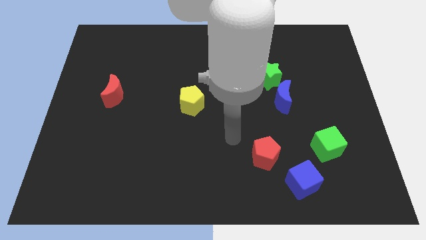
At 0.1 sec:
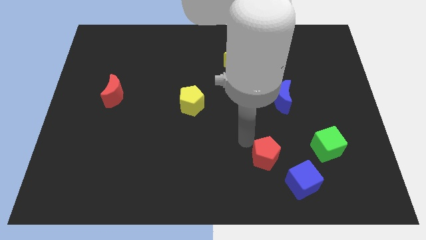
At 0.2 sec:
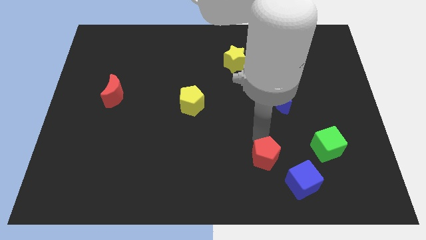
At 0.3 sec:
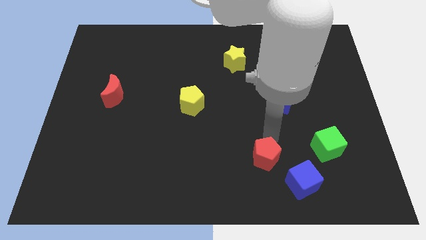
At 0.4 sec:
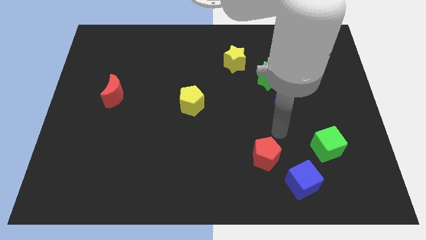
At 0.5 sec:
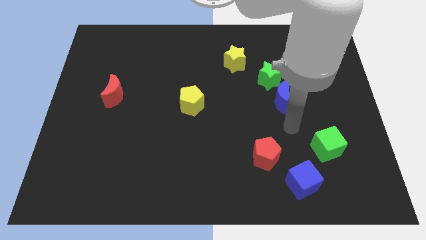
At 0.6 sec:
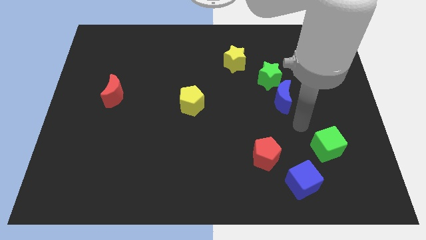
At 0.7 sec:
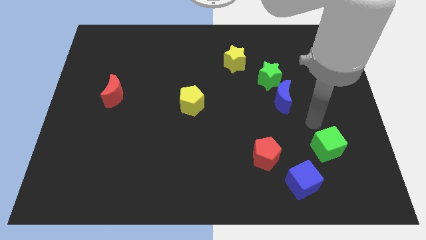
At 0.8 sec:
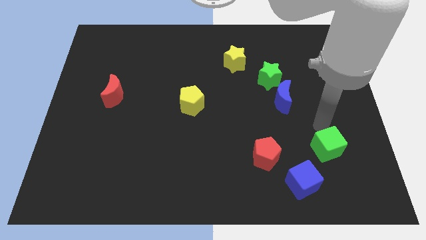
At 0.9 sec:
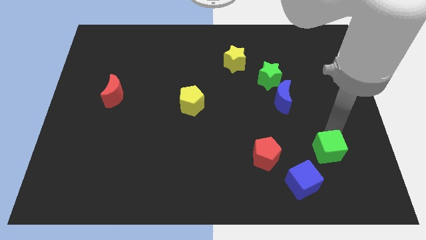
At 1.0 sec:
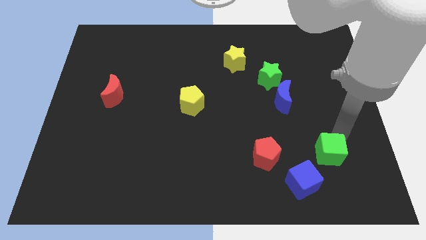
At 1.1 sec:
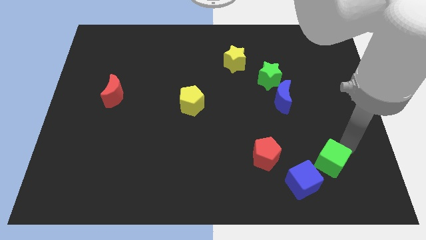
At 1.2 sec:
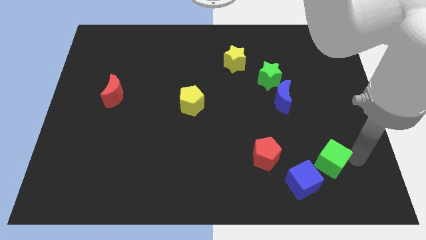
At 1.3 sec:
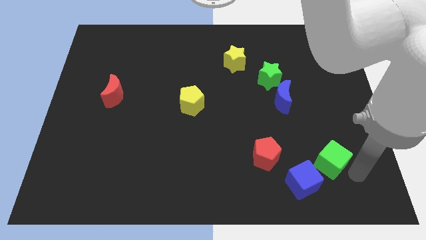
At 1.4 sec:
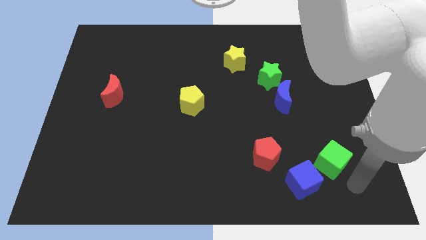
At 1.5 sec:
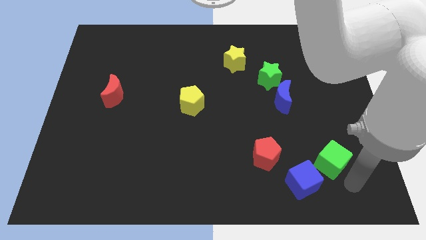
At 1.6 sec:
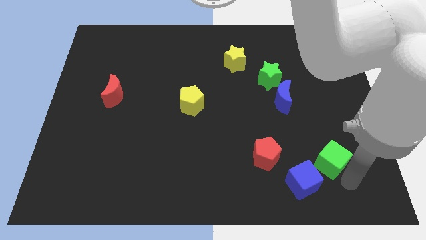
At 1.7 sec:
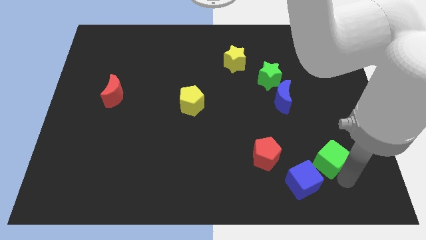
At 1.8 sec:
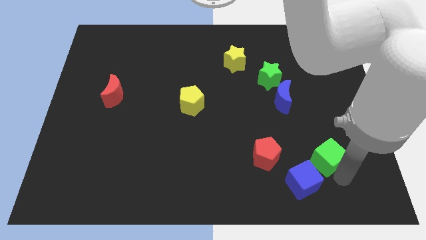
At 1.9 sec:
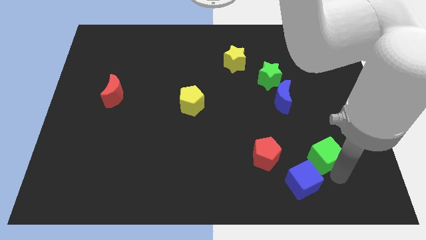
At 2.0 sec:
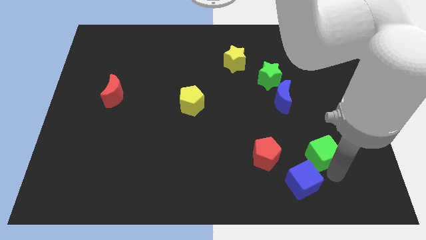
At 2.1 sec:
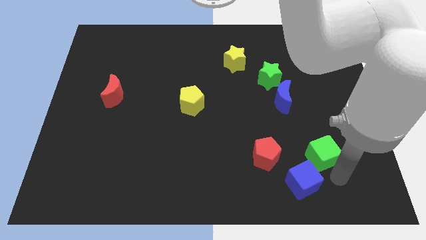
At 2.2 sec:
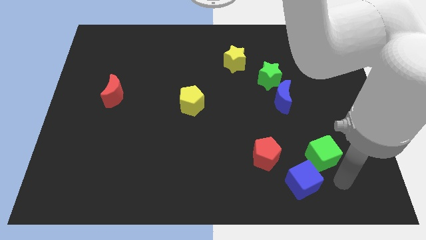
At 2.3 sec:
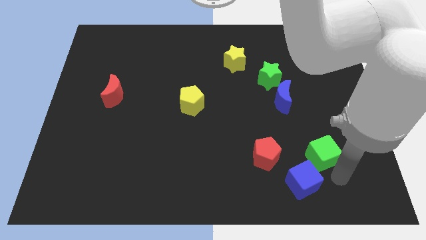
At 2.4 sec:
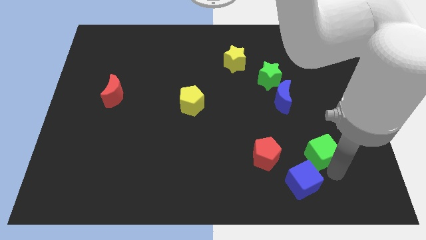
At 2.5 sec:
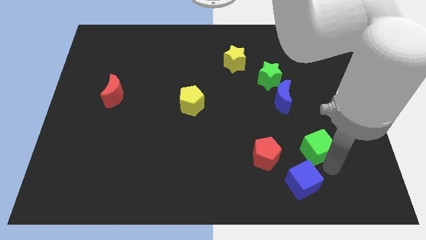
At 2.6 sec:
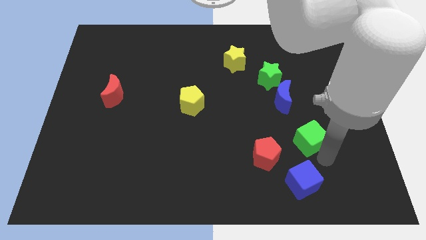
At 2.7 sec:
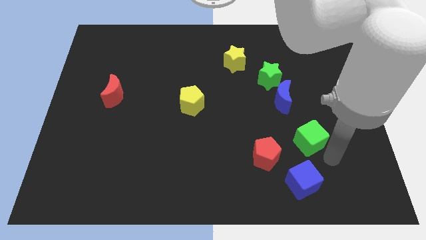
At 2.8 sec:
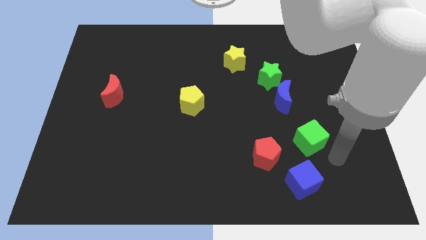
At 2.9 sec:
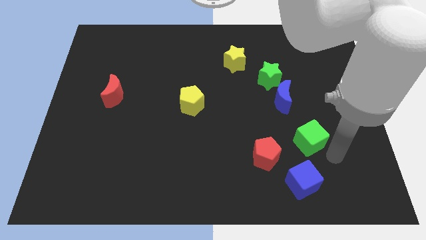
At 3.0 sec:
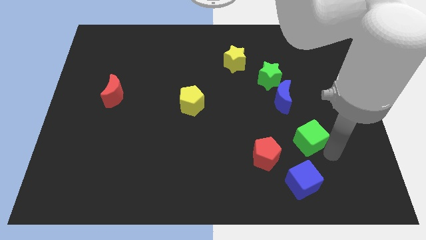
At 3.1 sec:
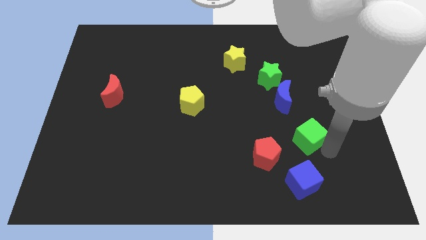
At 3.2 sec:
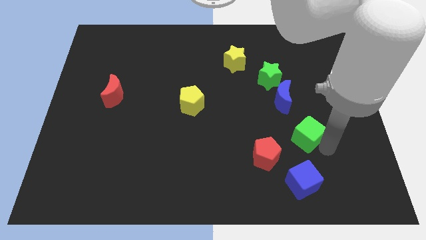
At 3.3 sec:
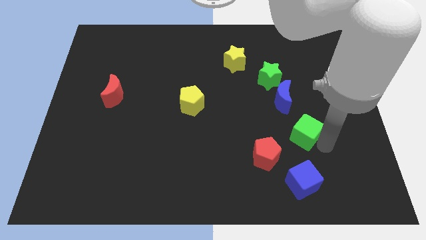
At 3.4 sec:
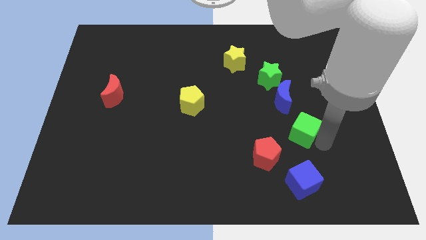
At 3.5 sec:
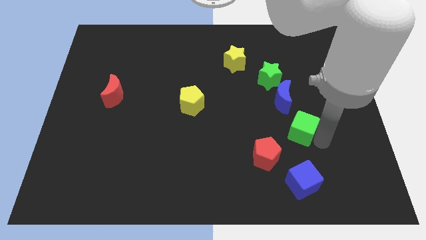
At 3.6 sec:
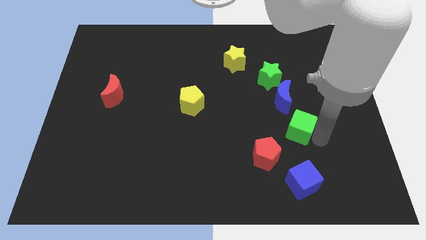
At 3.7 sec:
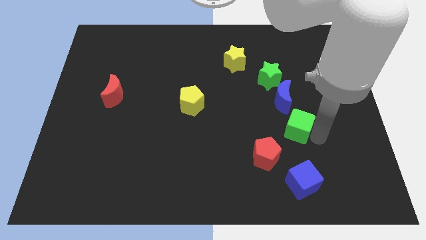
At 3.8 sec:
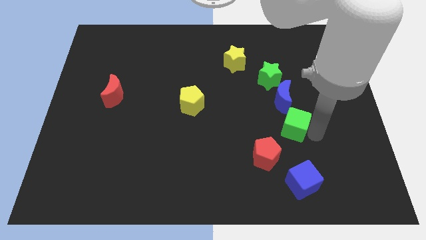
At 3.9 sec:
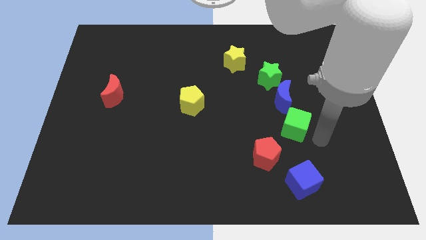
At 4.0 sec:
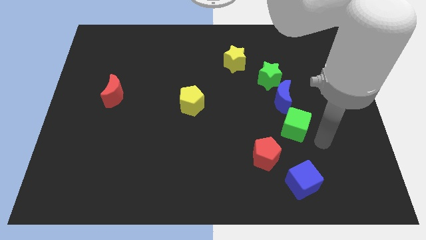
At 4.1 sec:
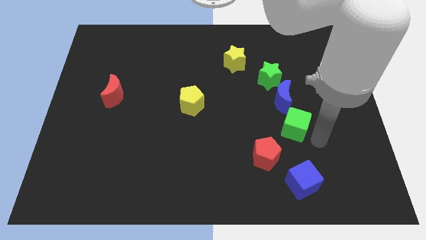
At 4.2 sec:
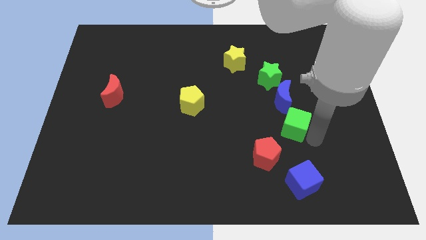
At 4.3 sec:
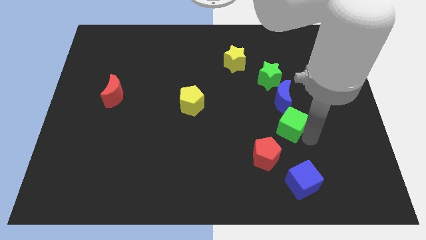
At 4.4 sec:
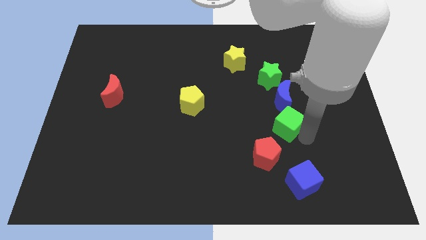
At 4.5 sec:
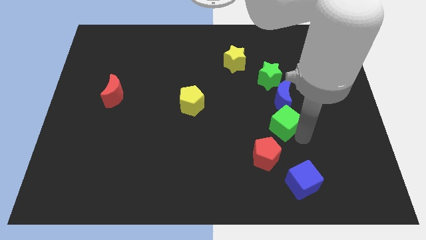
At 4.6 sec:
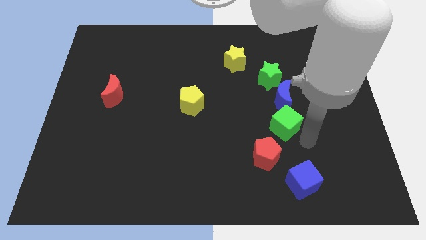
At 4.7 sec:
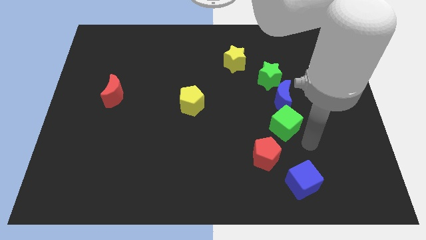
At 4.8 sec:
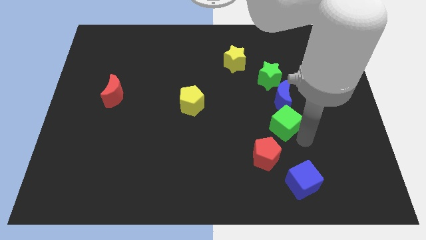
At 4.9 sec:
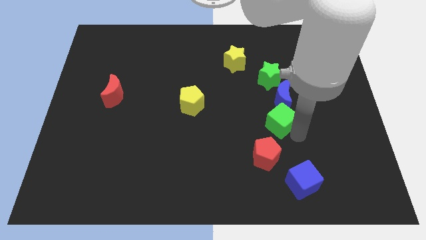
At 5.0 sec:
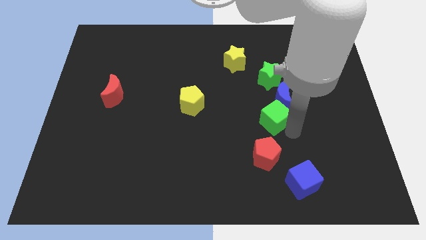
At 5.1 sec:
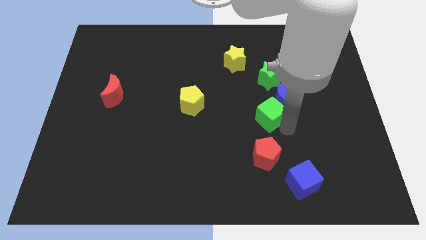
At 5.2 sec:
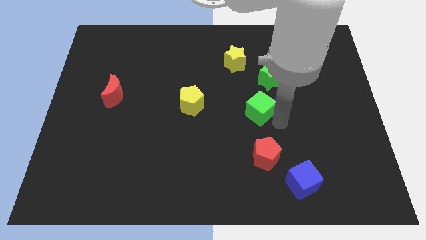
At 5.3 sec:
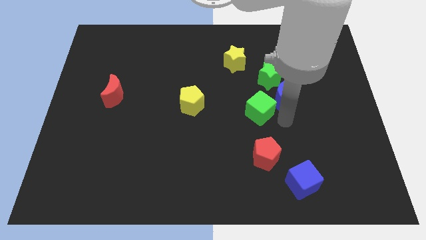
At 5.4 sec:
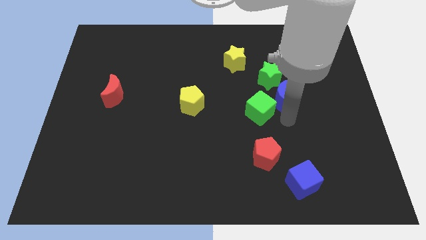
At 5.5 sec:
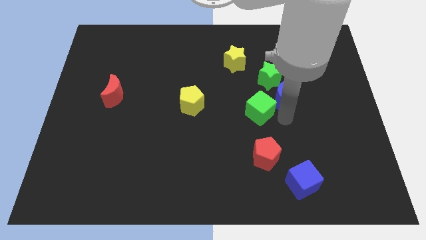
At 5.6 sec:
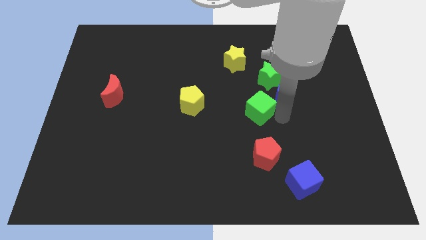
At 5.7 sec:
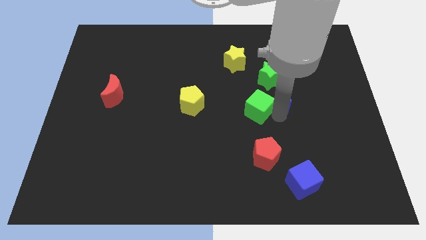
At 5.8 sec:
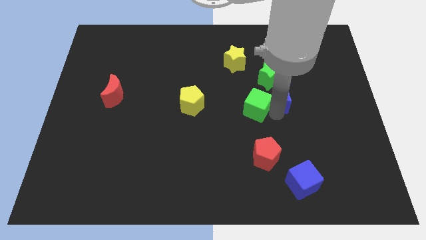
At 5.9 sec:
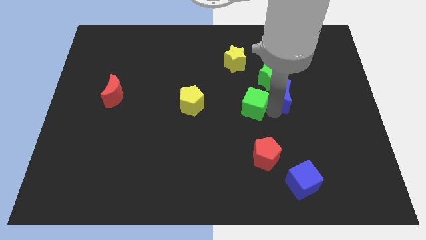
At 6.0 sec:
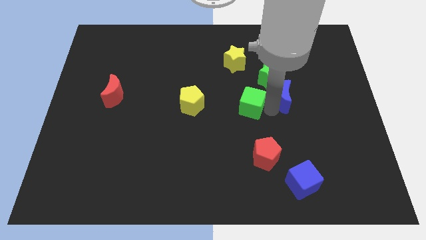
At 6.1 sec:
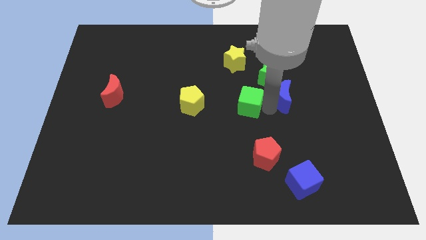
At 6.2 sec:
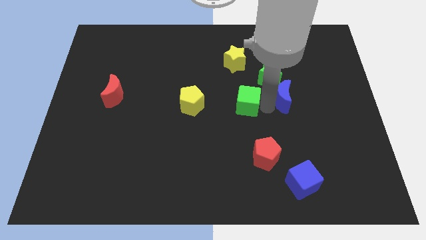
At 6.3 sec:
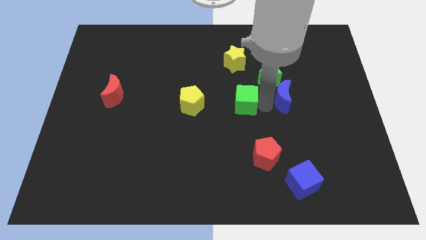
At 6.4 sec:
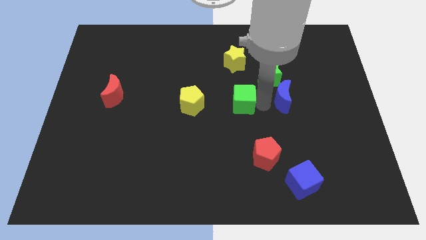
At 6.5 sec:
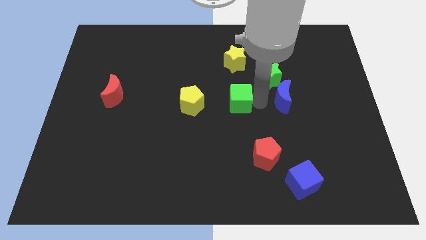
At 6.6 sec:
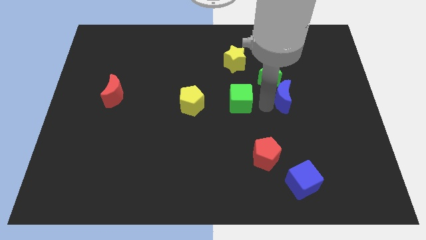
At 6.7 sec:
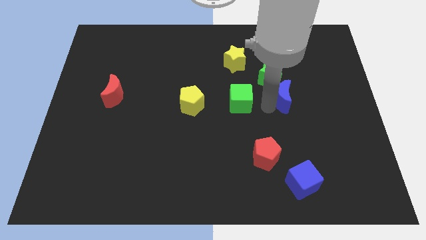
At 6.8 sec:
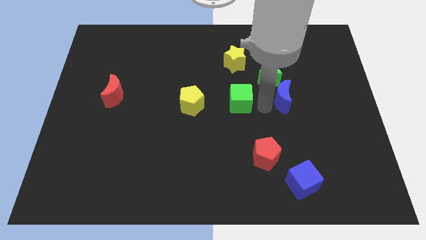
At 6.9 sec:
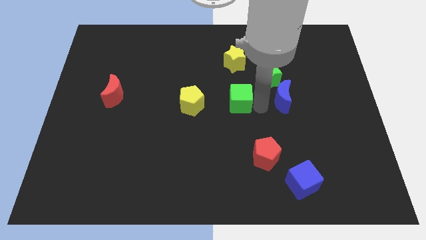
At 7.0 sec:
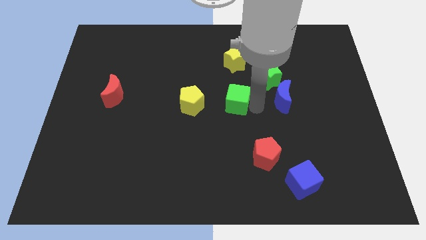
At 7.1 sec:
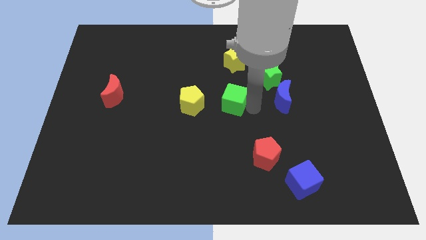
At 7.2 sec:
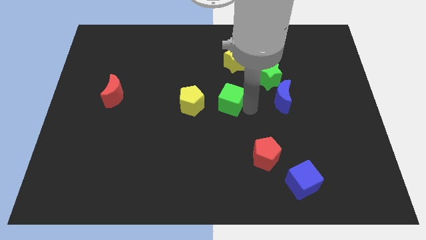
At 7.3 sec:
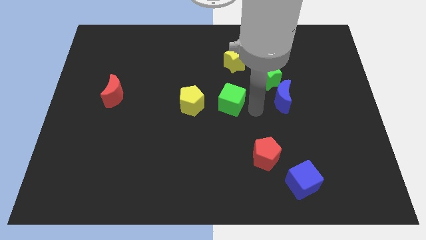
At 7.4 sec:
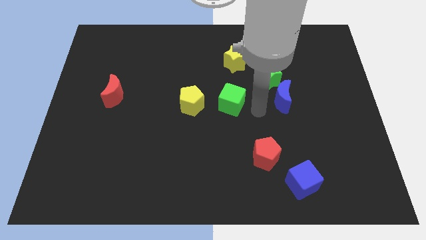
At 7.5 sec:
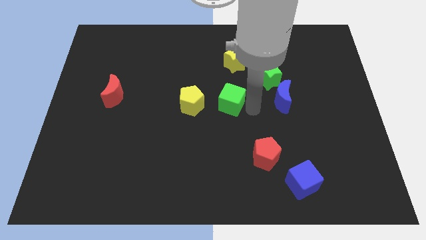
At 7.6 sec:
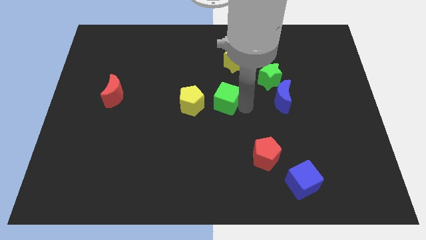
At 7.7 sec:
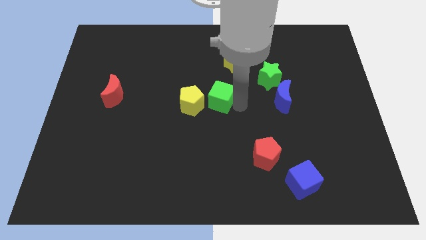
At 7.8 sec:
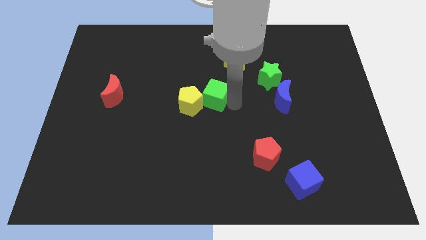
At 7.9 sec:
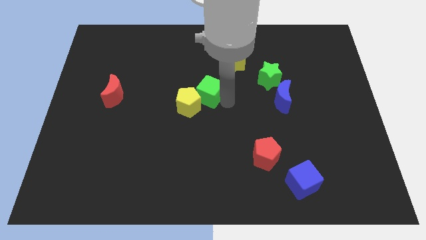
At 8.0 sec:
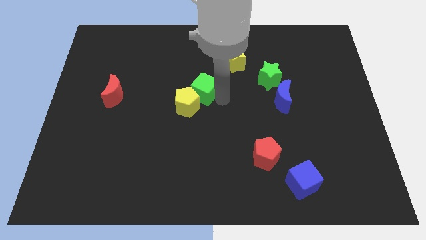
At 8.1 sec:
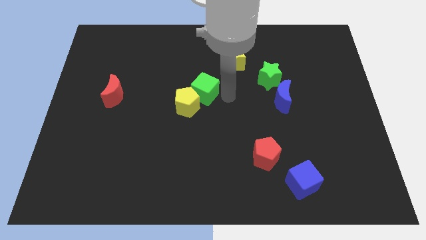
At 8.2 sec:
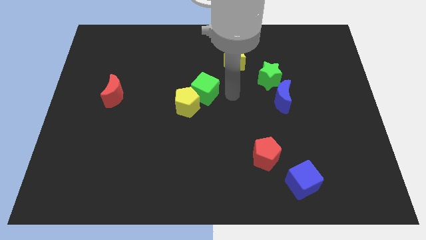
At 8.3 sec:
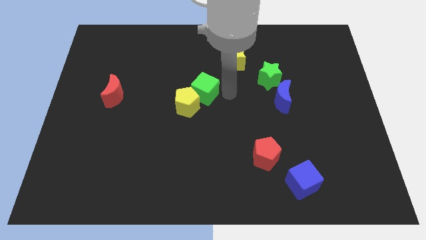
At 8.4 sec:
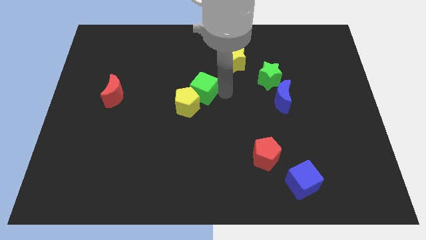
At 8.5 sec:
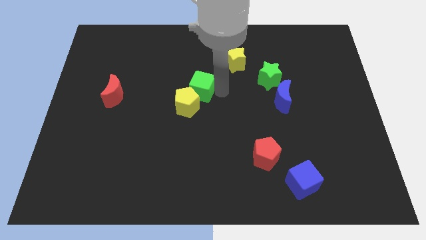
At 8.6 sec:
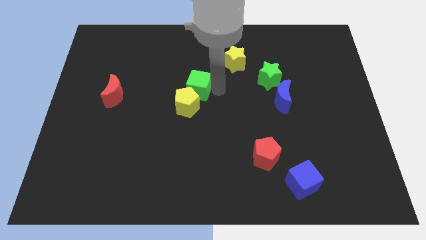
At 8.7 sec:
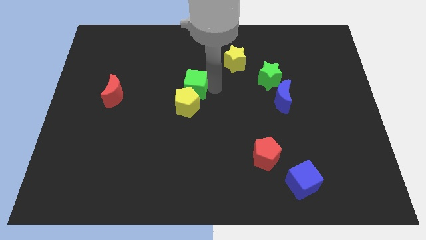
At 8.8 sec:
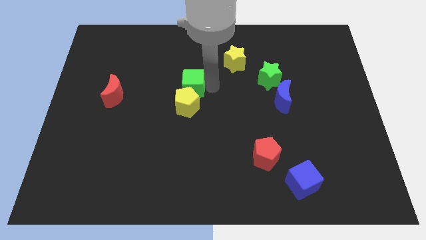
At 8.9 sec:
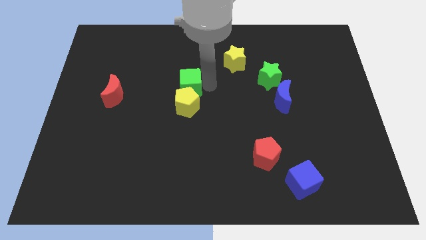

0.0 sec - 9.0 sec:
put the green cube diagonally up and to the left of the yellow pentagon
